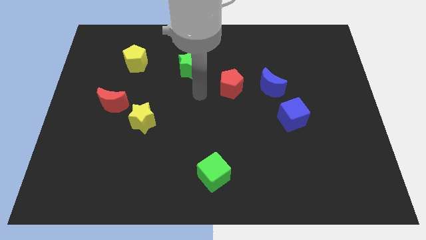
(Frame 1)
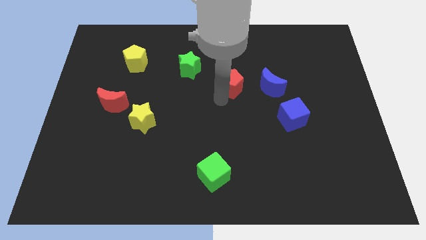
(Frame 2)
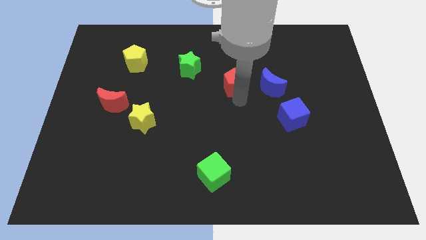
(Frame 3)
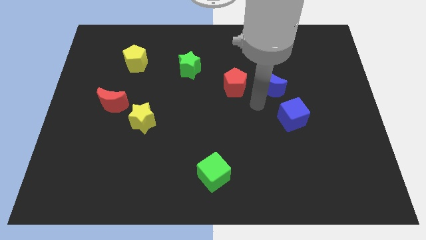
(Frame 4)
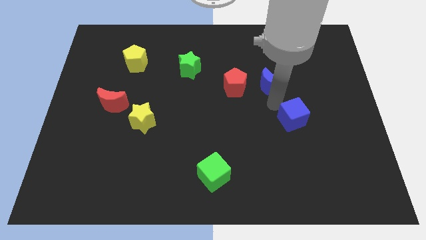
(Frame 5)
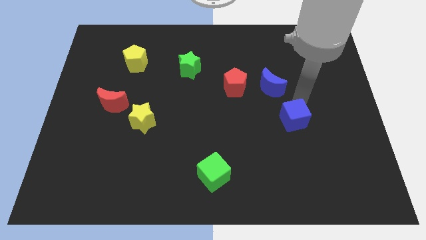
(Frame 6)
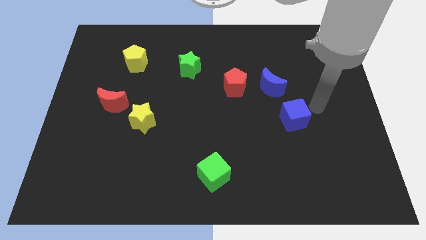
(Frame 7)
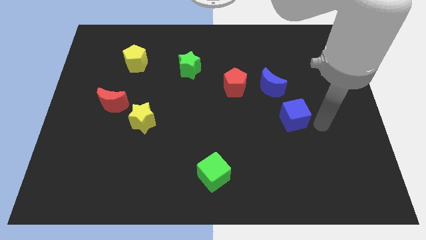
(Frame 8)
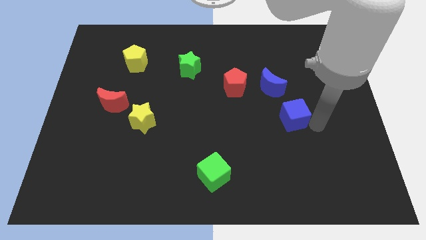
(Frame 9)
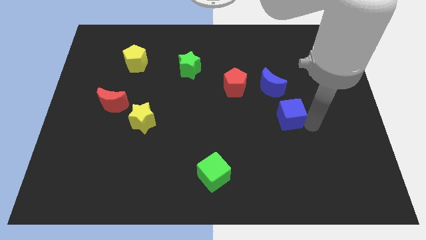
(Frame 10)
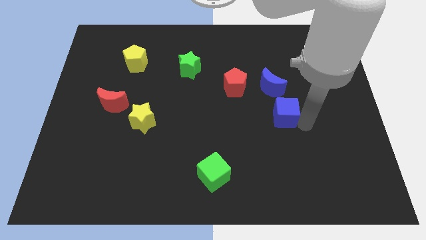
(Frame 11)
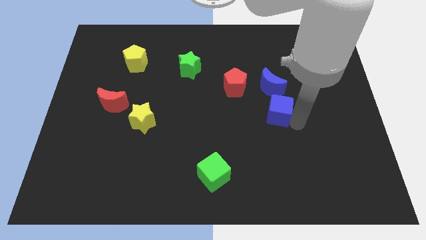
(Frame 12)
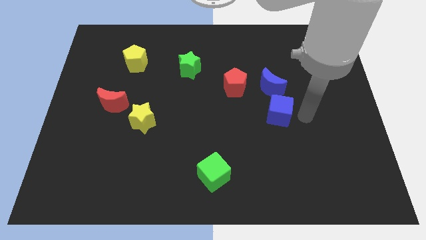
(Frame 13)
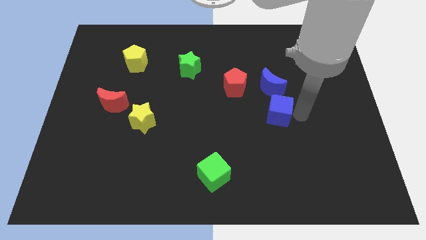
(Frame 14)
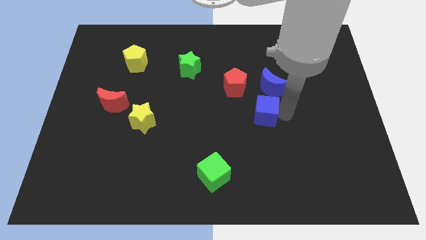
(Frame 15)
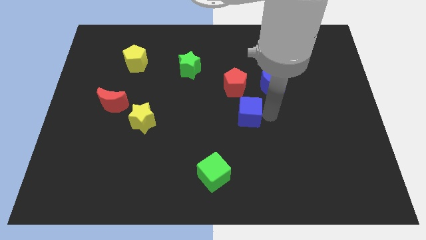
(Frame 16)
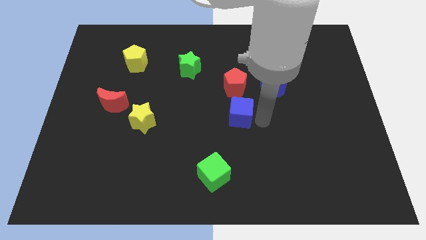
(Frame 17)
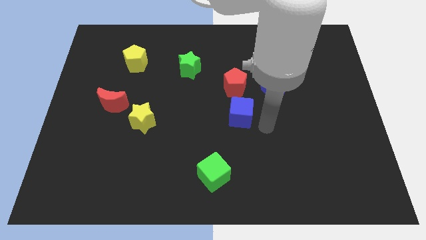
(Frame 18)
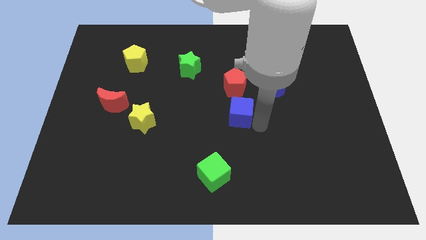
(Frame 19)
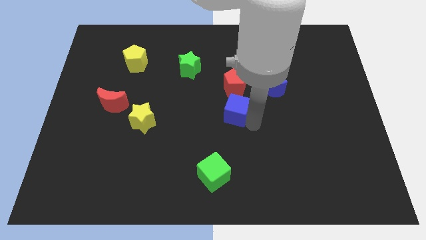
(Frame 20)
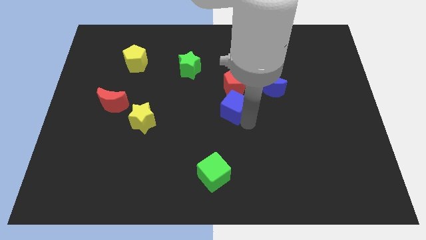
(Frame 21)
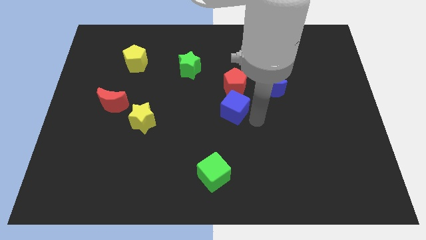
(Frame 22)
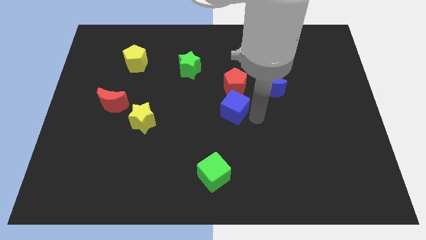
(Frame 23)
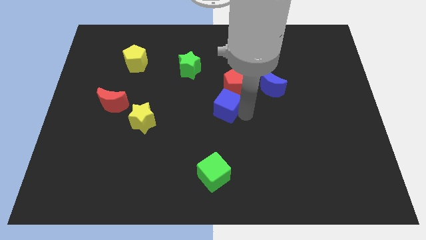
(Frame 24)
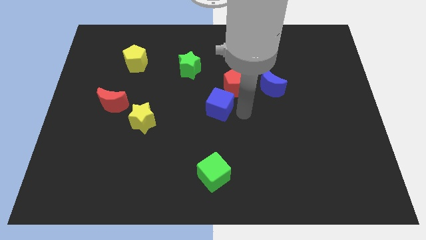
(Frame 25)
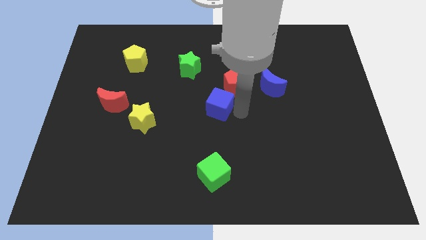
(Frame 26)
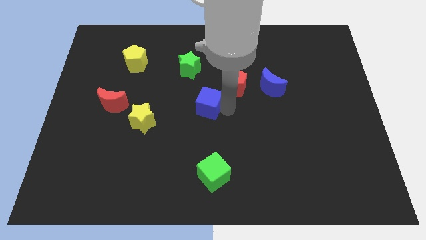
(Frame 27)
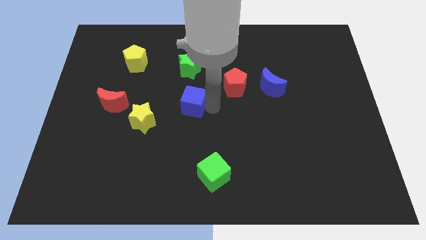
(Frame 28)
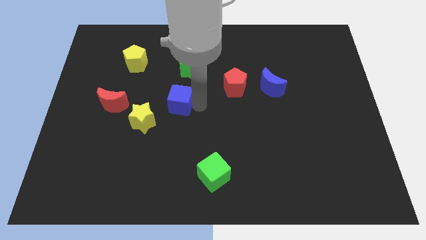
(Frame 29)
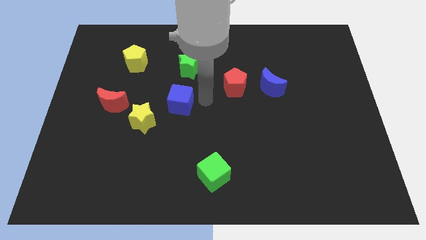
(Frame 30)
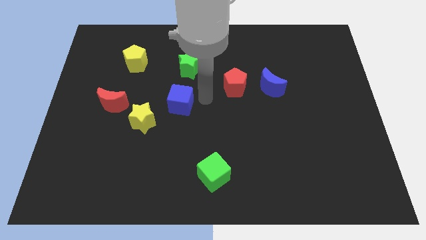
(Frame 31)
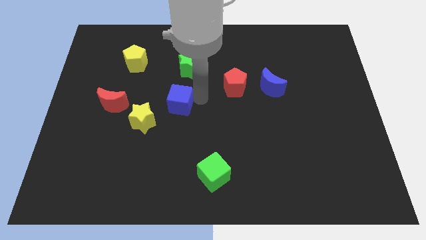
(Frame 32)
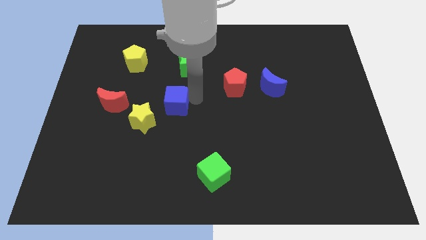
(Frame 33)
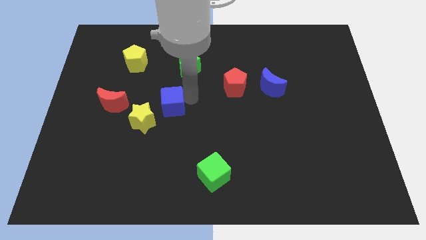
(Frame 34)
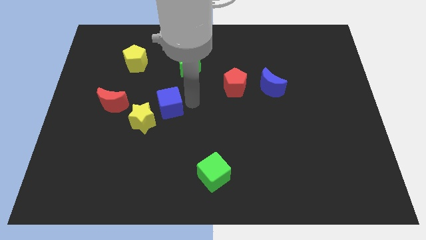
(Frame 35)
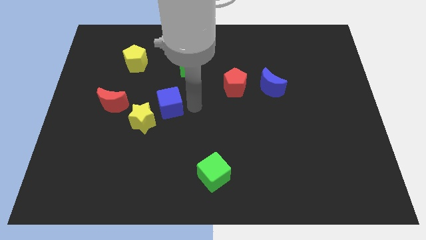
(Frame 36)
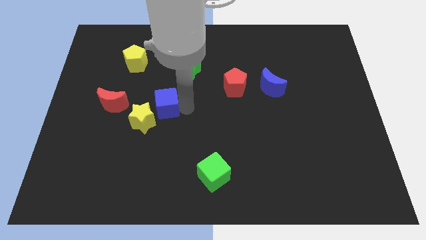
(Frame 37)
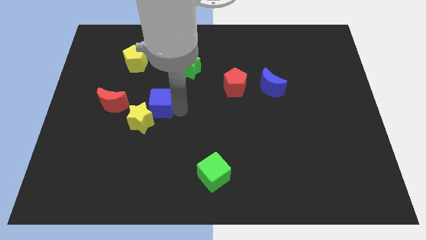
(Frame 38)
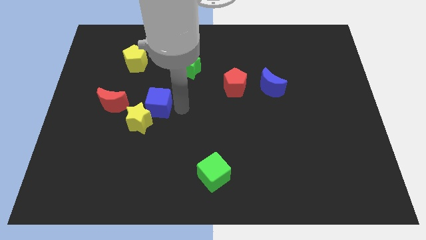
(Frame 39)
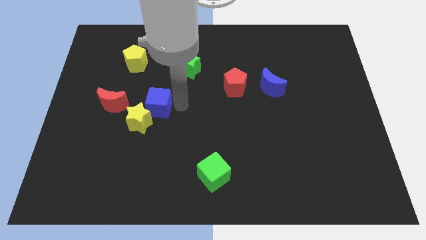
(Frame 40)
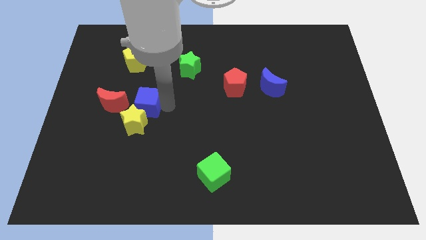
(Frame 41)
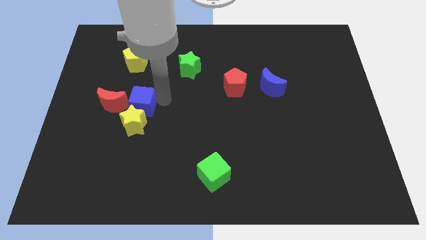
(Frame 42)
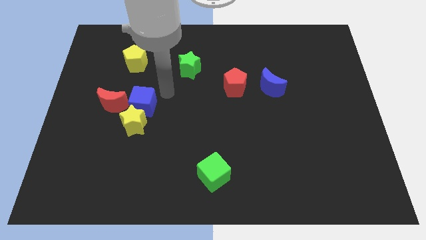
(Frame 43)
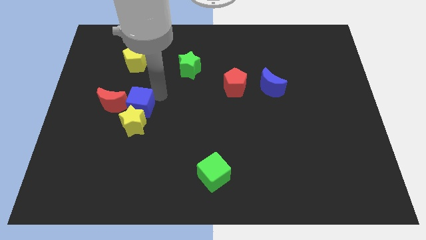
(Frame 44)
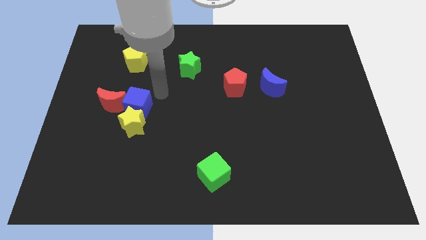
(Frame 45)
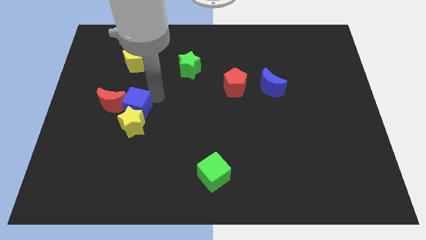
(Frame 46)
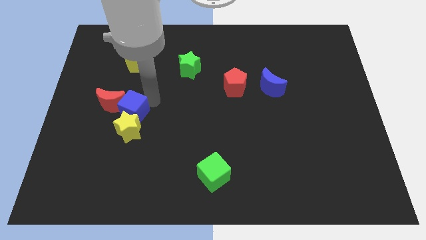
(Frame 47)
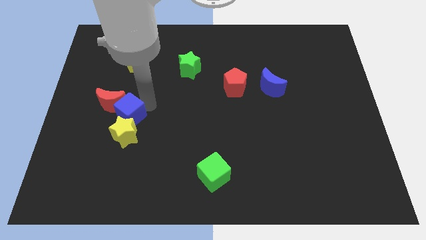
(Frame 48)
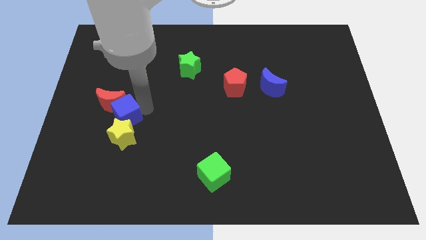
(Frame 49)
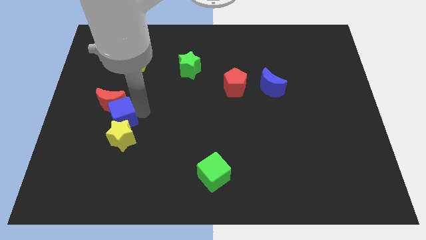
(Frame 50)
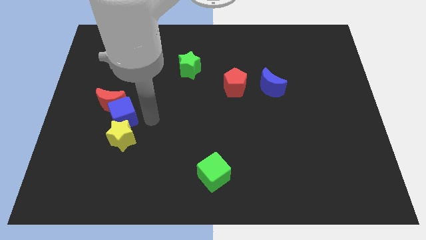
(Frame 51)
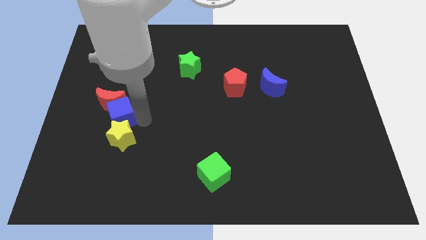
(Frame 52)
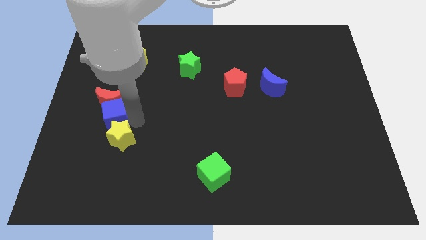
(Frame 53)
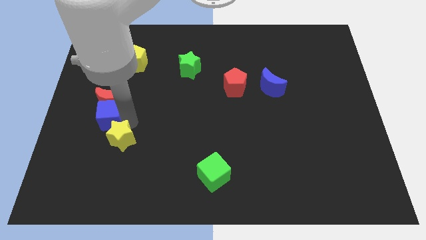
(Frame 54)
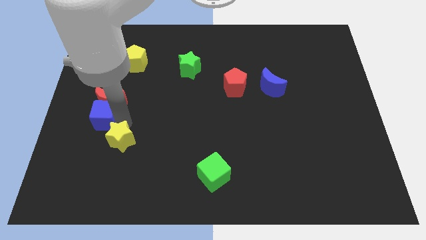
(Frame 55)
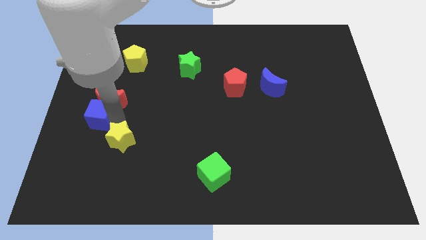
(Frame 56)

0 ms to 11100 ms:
move the blue cube to the center left

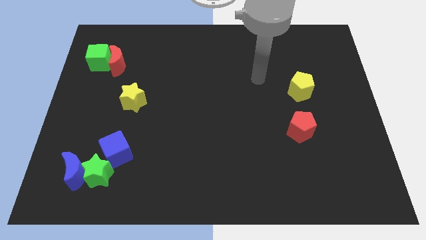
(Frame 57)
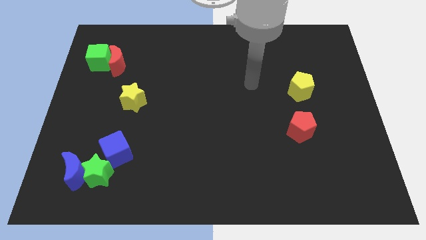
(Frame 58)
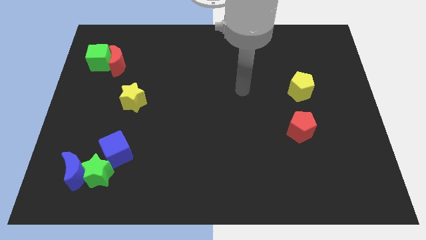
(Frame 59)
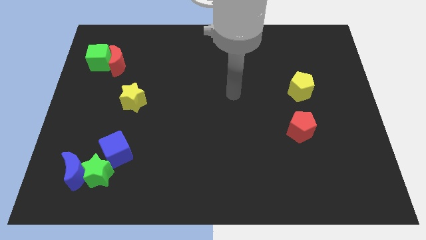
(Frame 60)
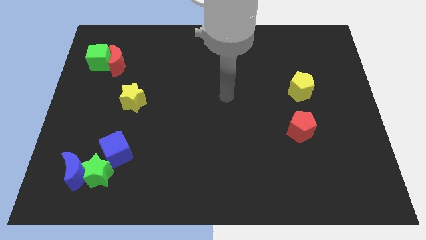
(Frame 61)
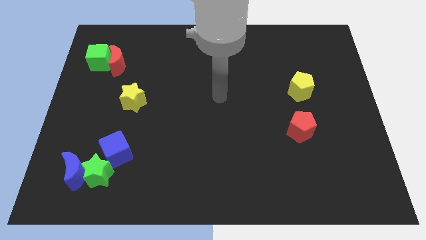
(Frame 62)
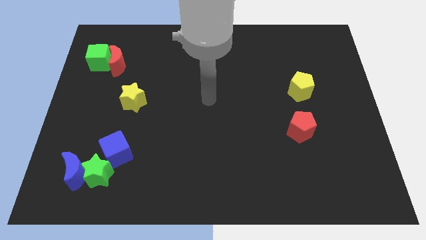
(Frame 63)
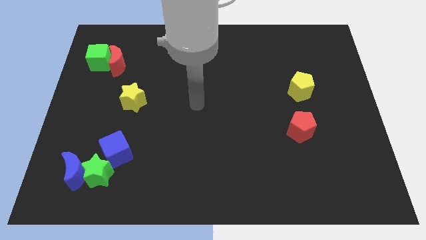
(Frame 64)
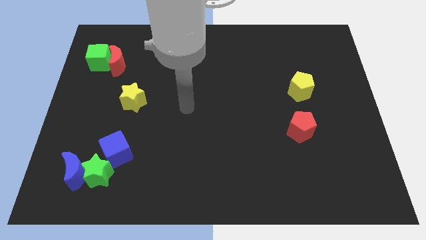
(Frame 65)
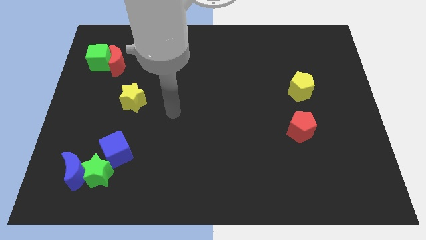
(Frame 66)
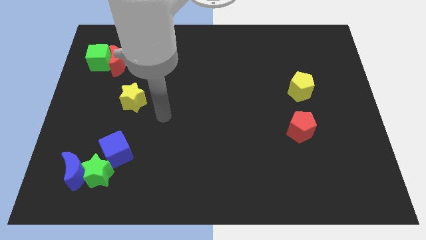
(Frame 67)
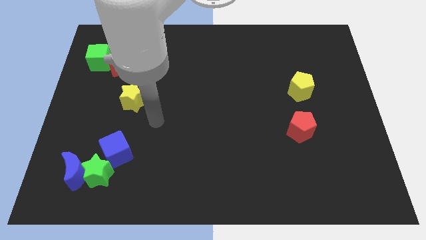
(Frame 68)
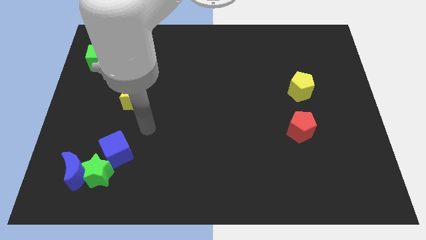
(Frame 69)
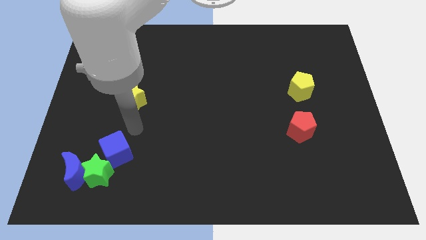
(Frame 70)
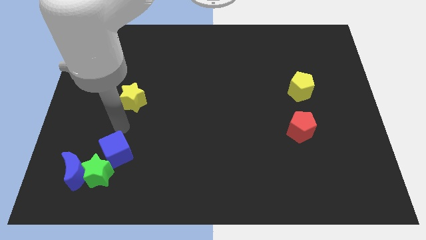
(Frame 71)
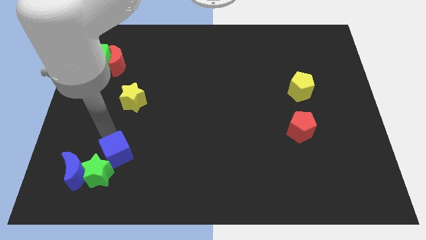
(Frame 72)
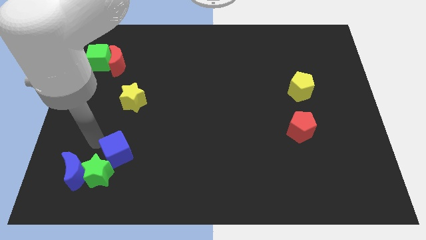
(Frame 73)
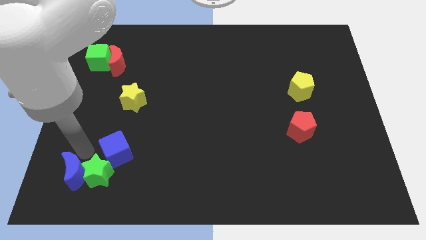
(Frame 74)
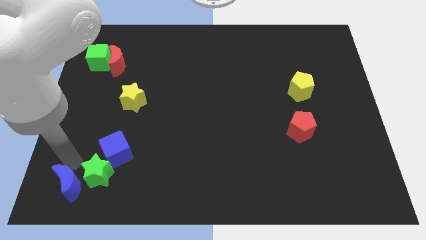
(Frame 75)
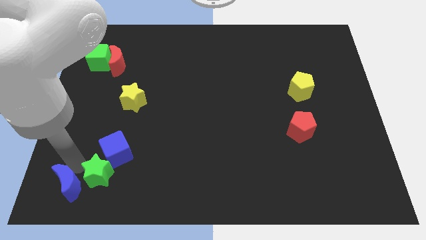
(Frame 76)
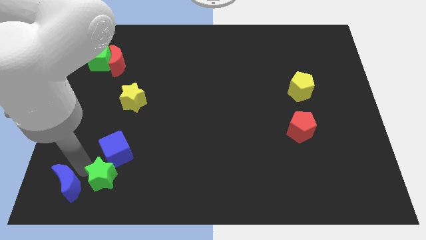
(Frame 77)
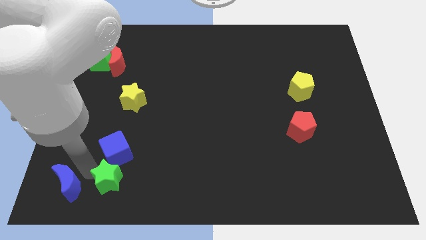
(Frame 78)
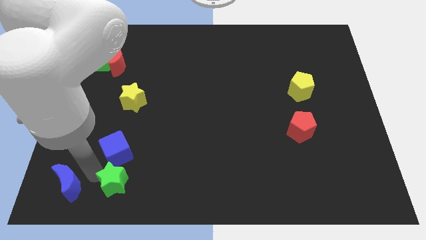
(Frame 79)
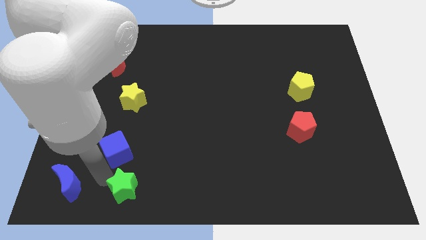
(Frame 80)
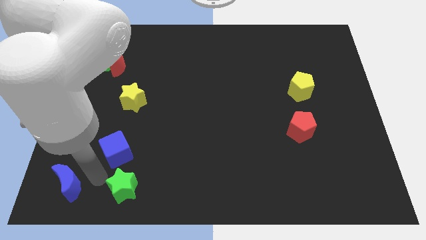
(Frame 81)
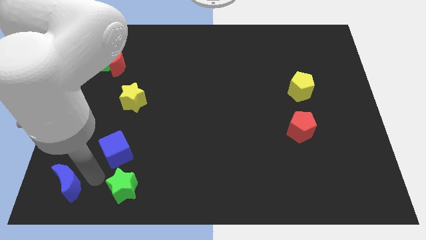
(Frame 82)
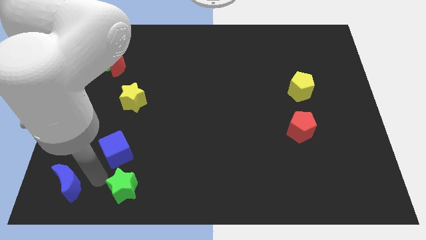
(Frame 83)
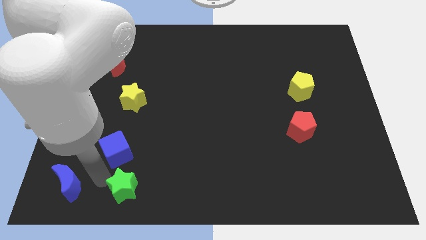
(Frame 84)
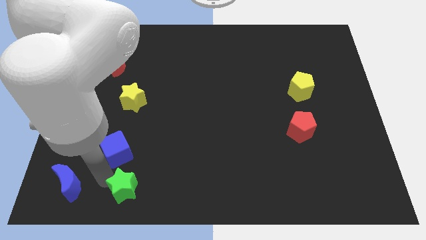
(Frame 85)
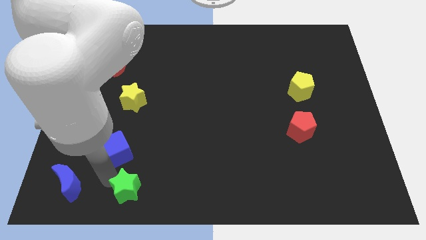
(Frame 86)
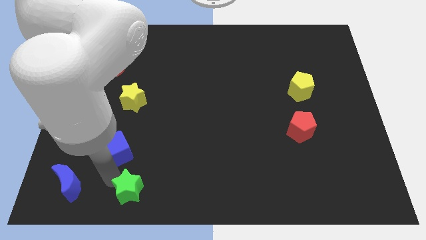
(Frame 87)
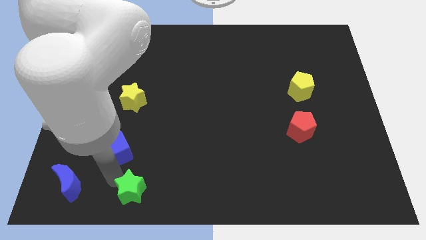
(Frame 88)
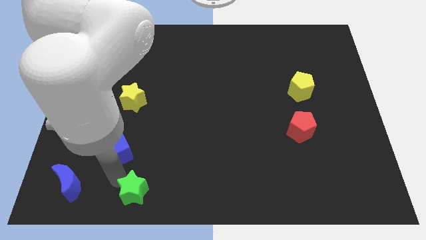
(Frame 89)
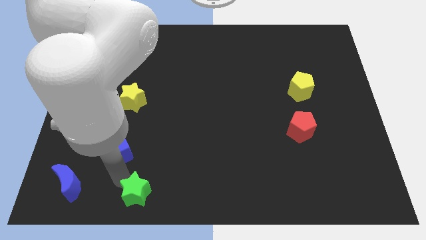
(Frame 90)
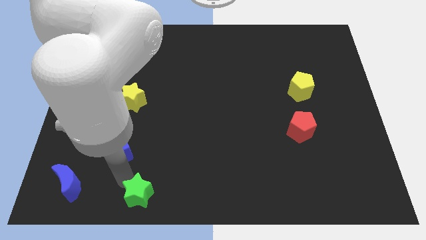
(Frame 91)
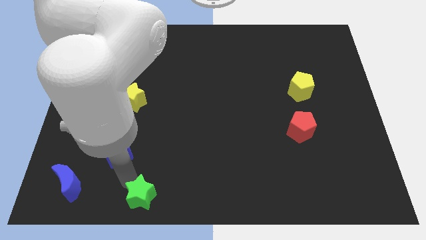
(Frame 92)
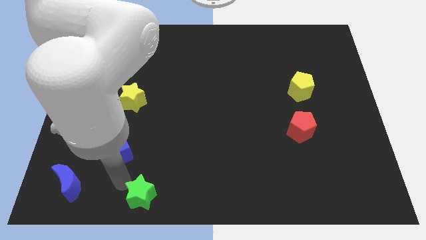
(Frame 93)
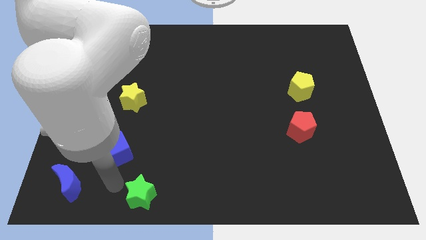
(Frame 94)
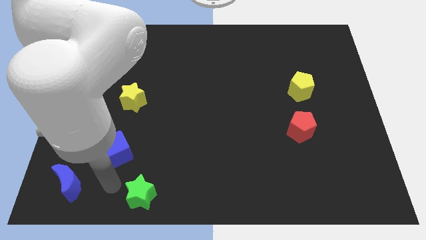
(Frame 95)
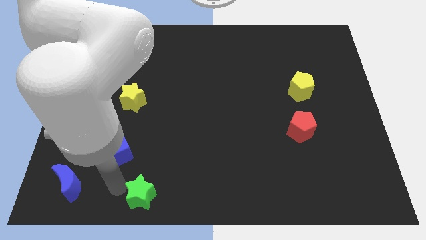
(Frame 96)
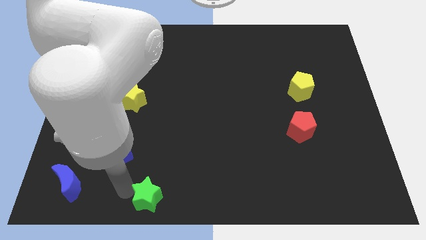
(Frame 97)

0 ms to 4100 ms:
move the green star to the bottom
